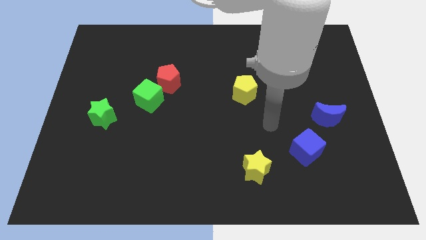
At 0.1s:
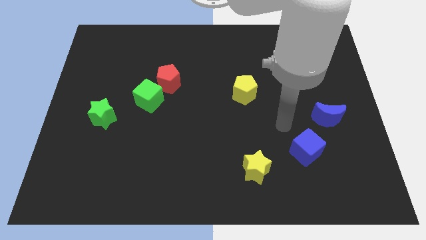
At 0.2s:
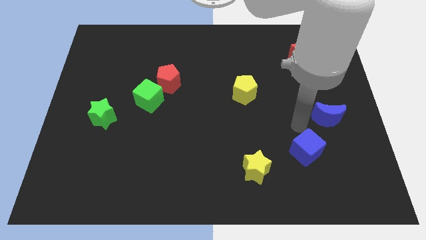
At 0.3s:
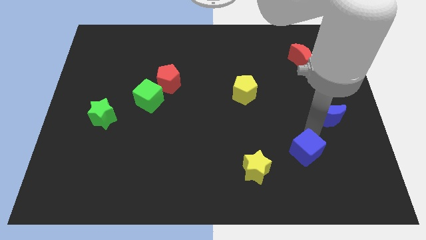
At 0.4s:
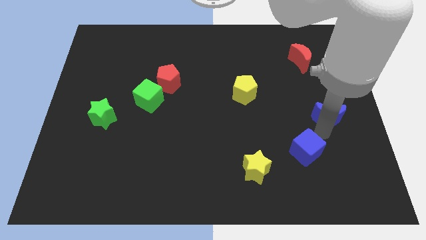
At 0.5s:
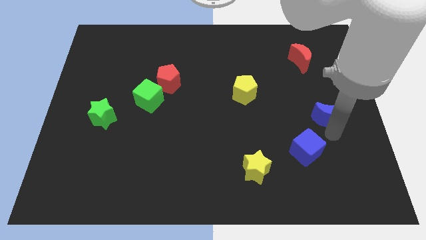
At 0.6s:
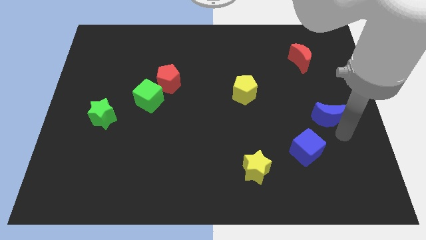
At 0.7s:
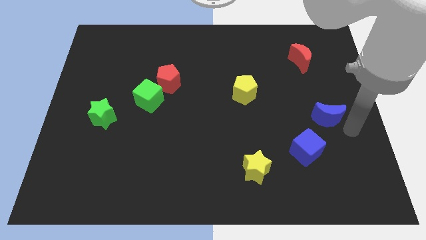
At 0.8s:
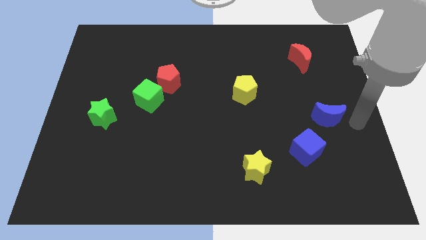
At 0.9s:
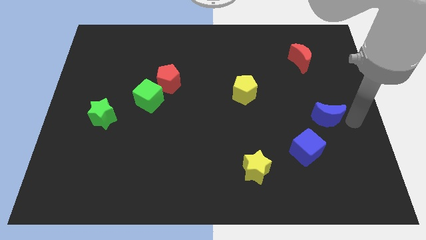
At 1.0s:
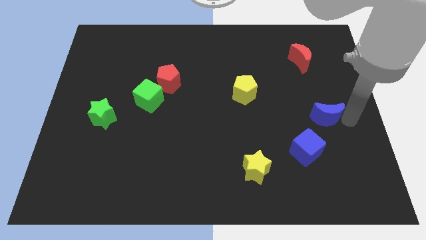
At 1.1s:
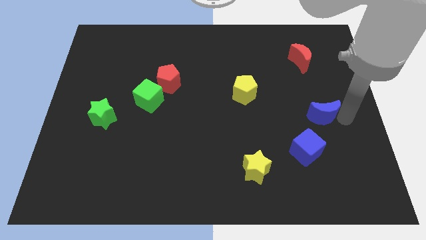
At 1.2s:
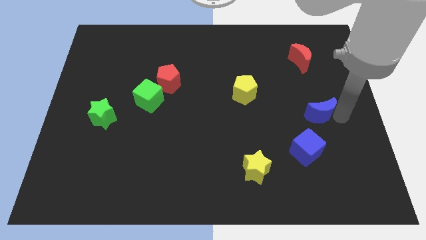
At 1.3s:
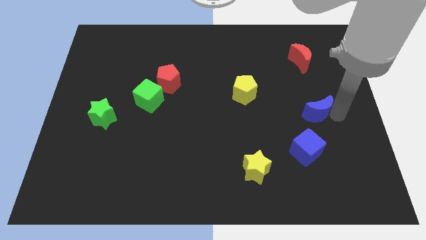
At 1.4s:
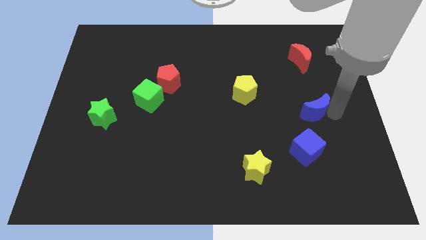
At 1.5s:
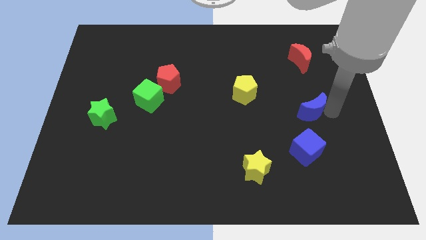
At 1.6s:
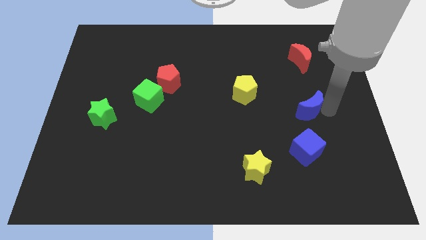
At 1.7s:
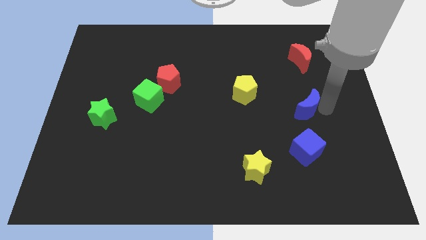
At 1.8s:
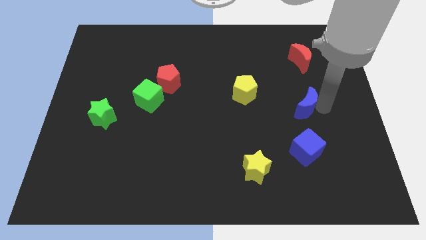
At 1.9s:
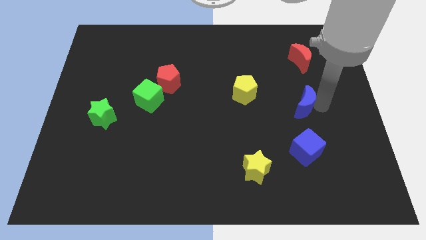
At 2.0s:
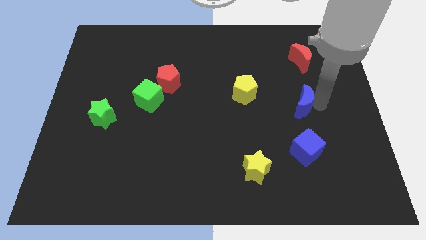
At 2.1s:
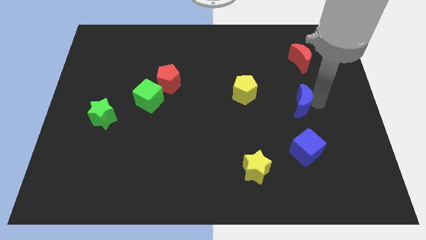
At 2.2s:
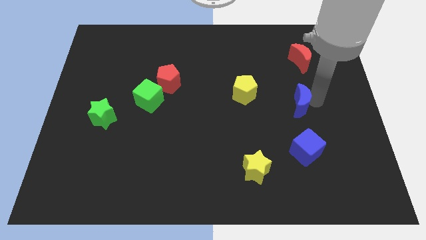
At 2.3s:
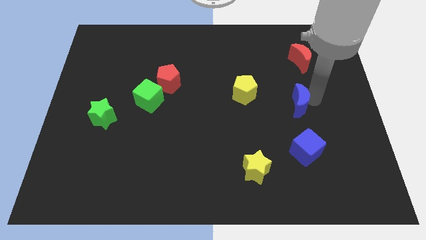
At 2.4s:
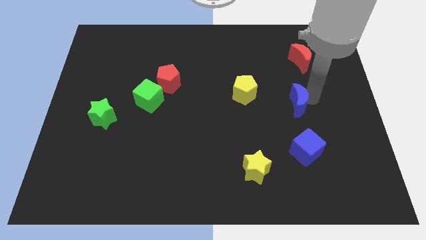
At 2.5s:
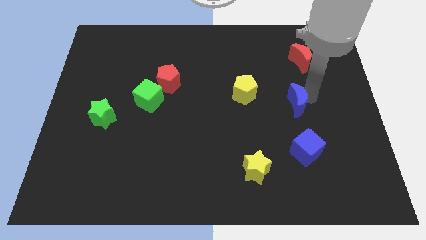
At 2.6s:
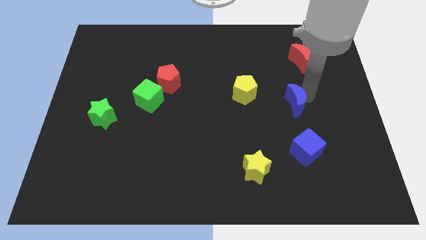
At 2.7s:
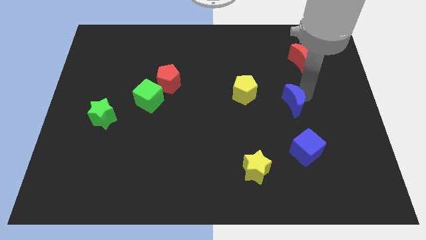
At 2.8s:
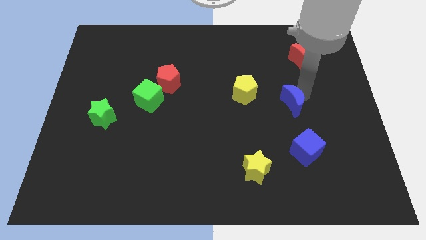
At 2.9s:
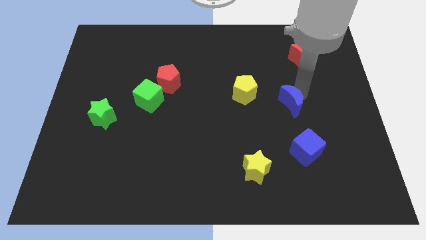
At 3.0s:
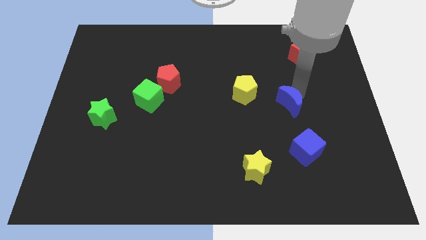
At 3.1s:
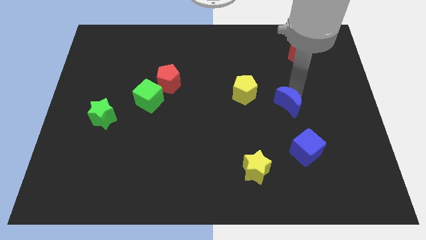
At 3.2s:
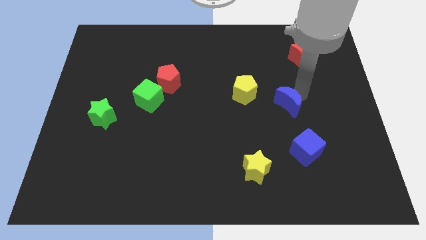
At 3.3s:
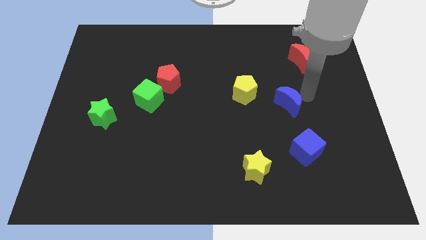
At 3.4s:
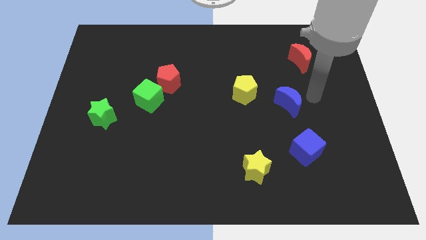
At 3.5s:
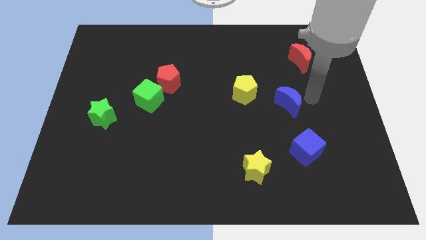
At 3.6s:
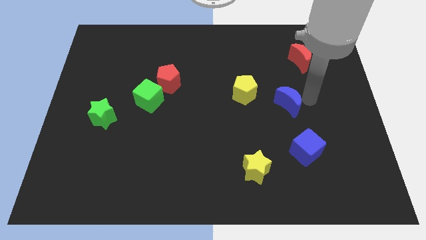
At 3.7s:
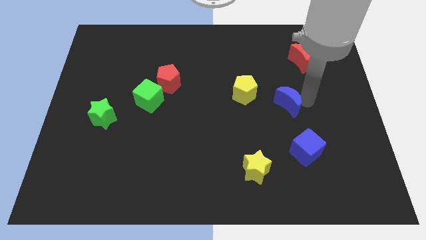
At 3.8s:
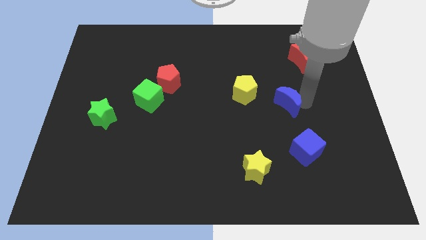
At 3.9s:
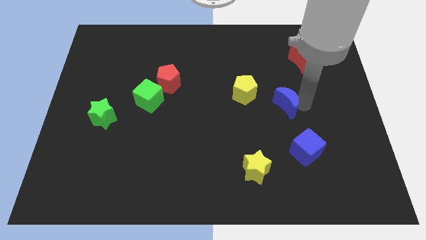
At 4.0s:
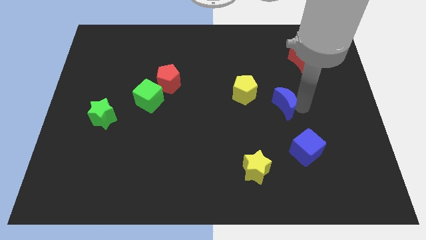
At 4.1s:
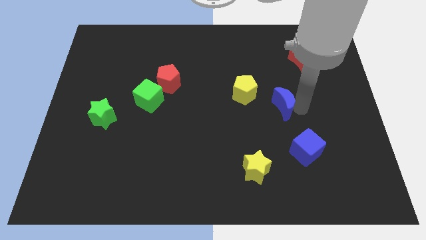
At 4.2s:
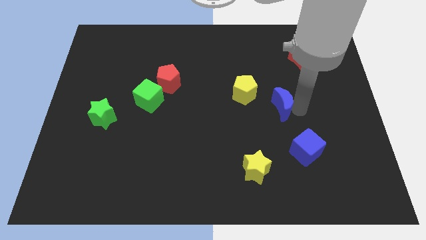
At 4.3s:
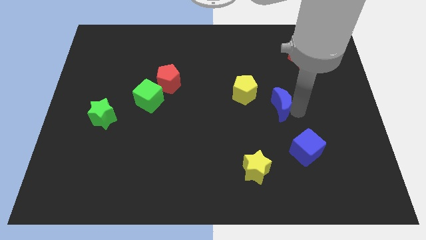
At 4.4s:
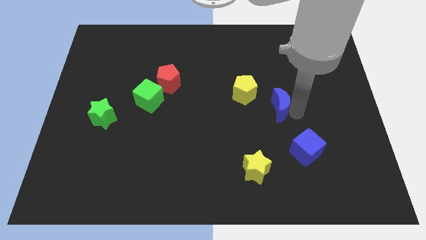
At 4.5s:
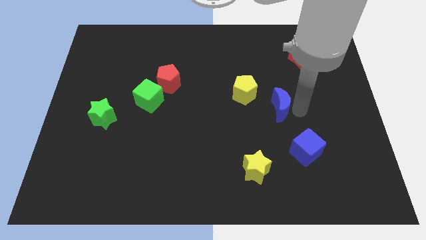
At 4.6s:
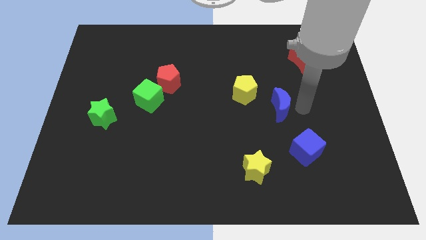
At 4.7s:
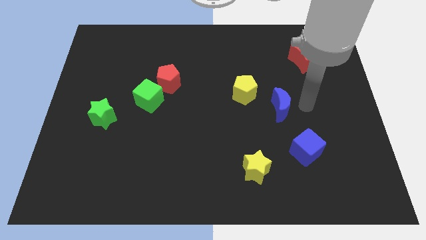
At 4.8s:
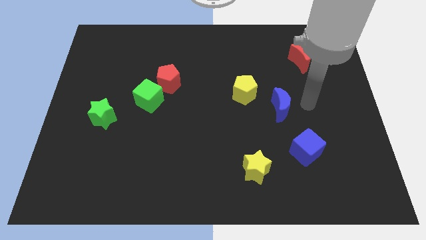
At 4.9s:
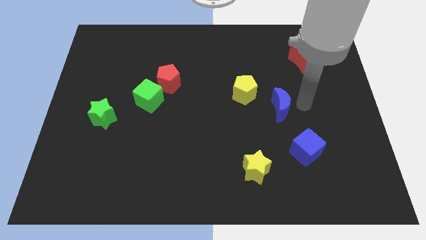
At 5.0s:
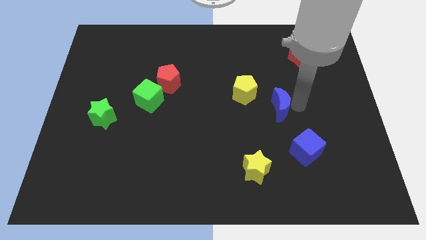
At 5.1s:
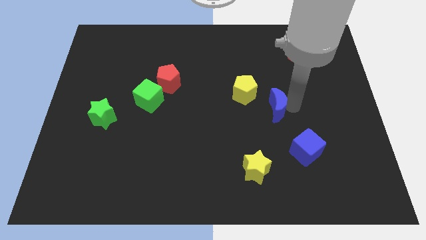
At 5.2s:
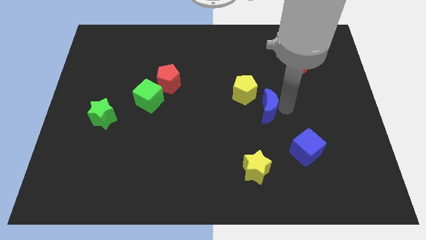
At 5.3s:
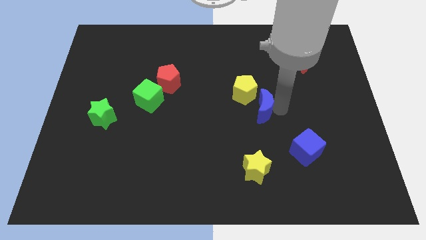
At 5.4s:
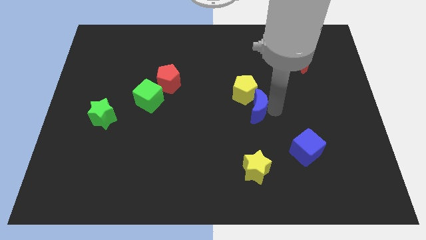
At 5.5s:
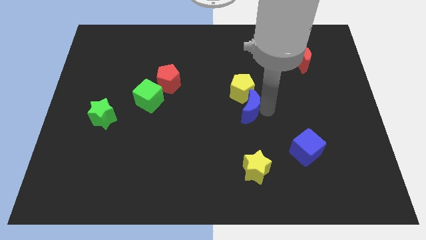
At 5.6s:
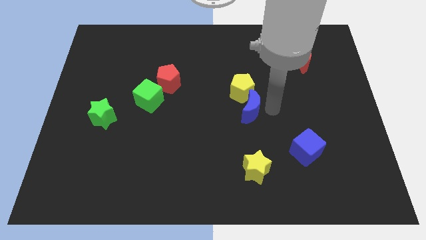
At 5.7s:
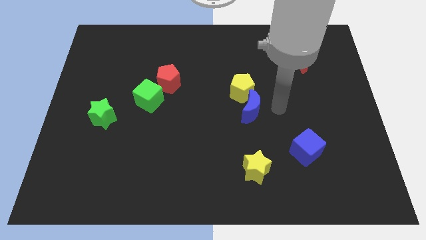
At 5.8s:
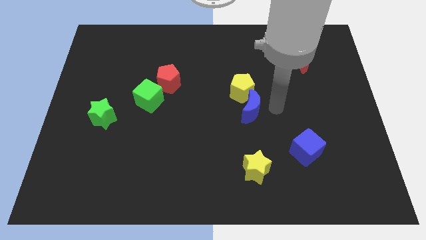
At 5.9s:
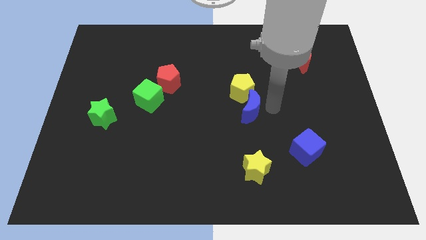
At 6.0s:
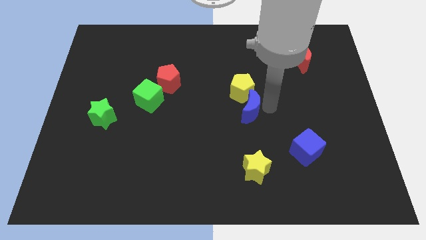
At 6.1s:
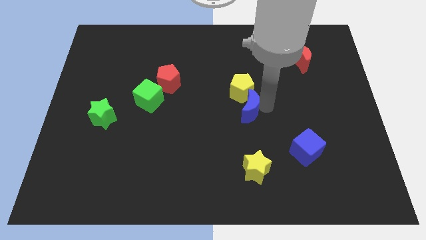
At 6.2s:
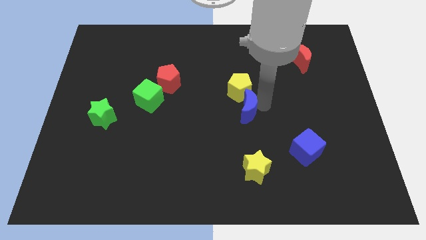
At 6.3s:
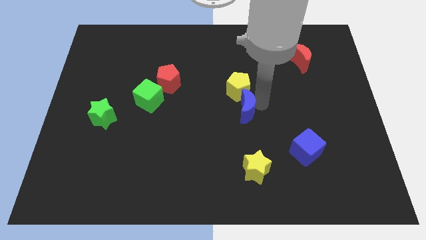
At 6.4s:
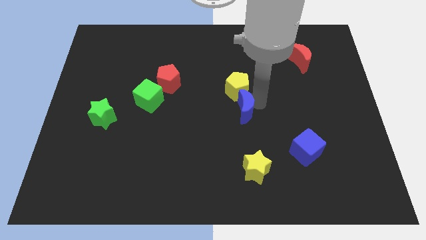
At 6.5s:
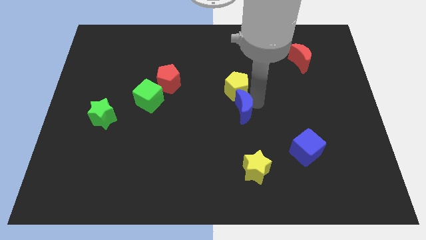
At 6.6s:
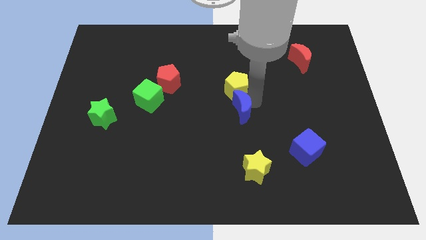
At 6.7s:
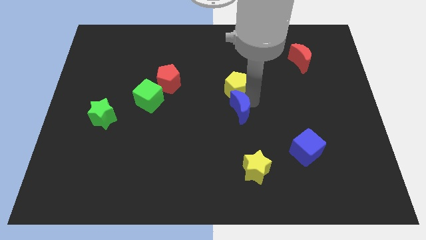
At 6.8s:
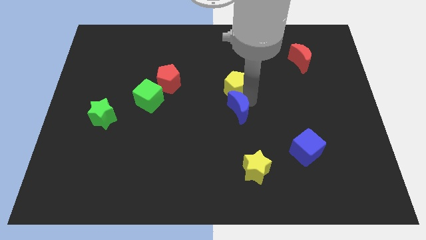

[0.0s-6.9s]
slide the blue moon left

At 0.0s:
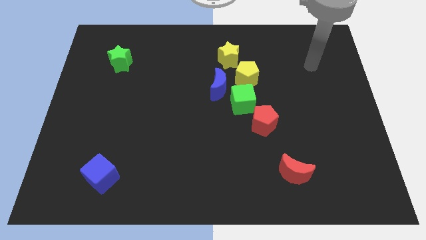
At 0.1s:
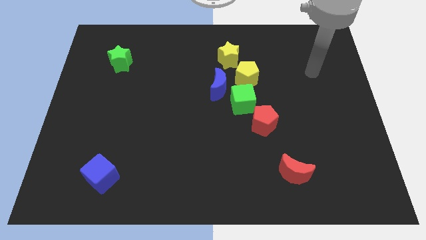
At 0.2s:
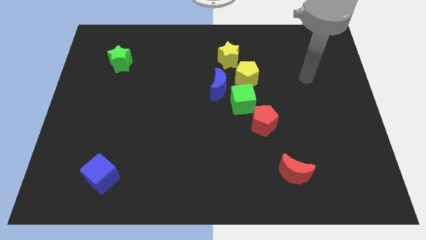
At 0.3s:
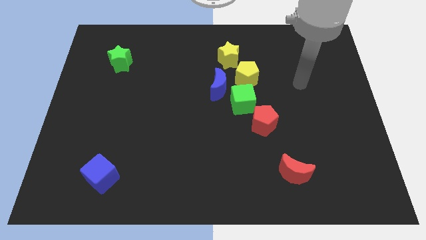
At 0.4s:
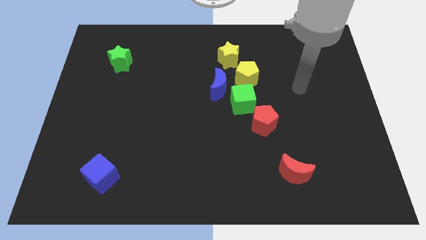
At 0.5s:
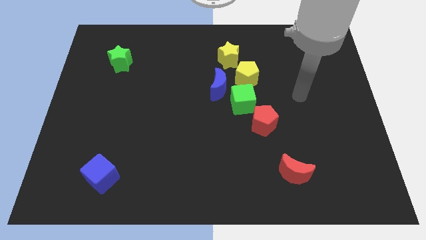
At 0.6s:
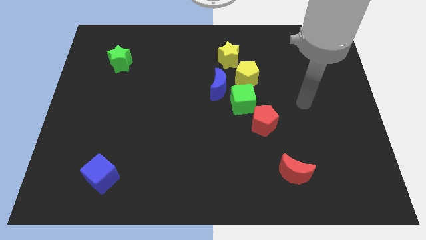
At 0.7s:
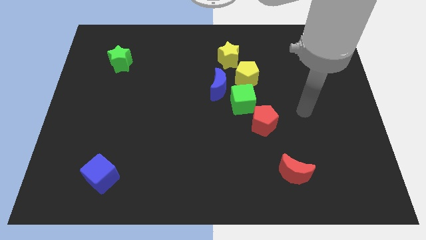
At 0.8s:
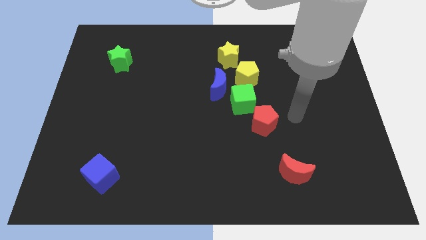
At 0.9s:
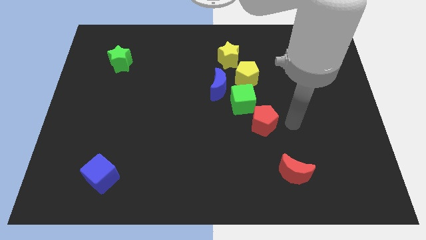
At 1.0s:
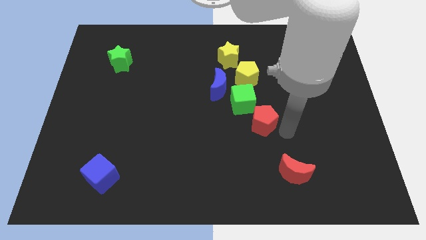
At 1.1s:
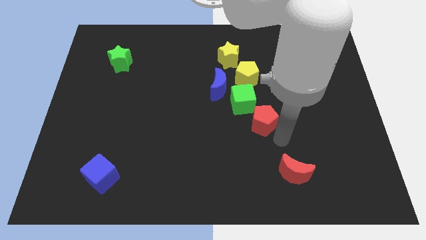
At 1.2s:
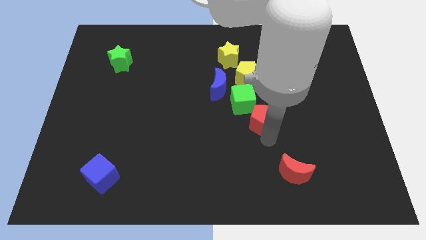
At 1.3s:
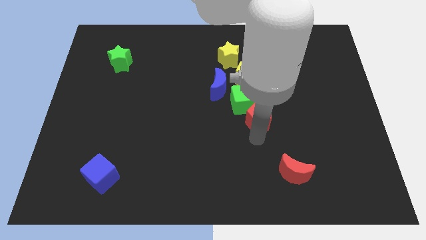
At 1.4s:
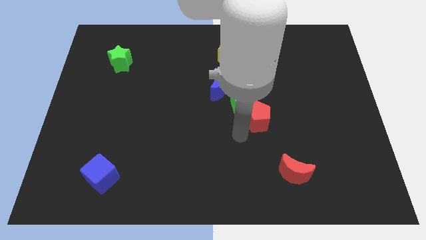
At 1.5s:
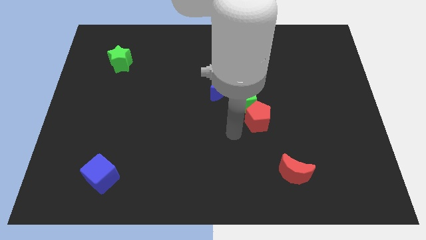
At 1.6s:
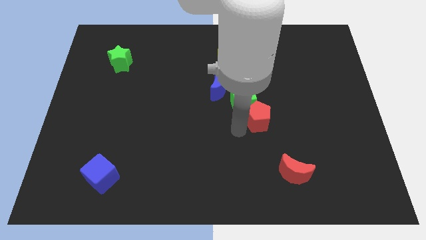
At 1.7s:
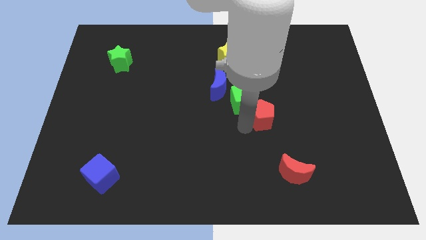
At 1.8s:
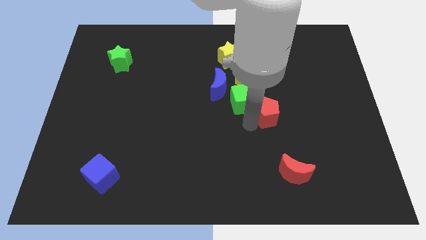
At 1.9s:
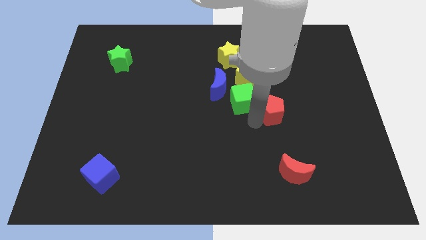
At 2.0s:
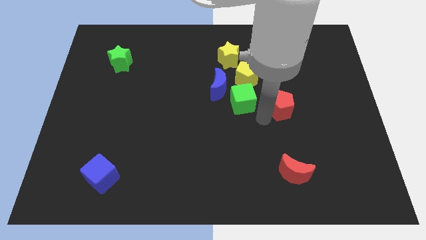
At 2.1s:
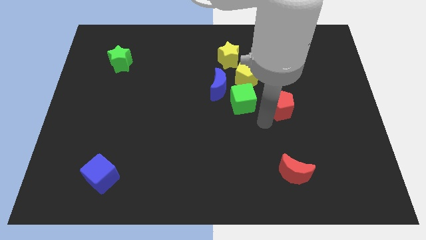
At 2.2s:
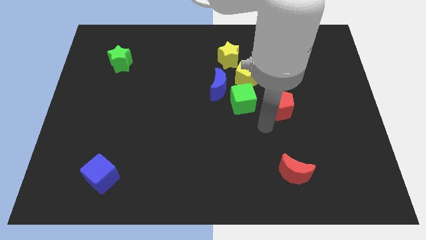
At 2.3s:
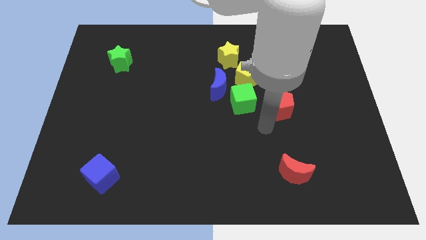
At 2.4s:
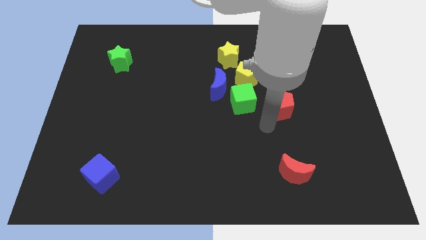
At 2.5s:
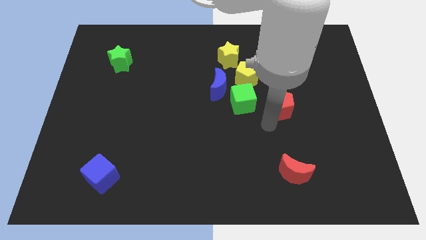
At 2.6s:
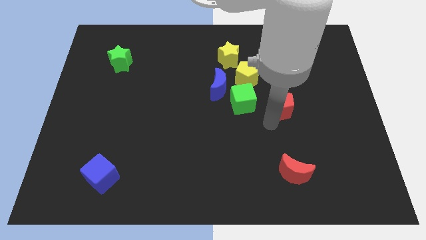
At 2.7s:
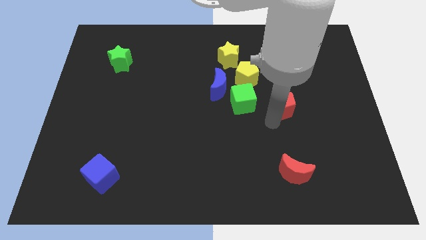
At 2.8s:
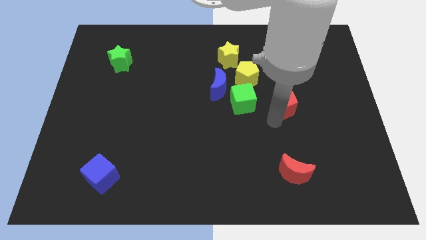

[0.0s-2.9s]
slide the red pentagon a little upwards and to the right diagonally
